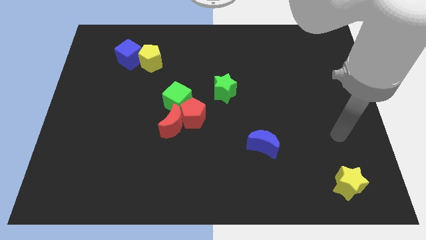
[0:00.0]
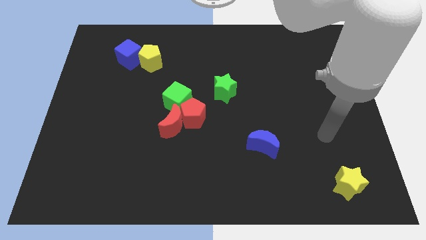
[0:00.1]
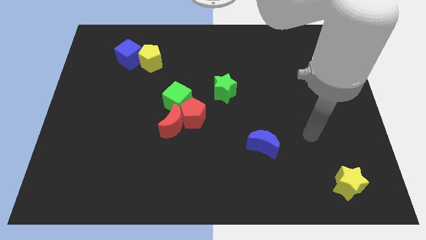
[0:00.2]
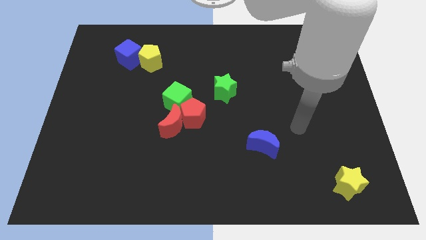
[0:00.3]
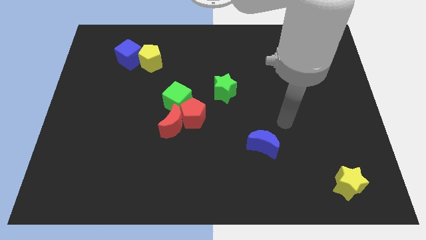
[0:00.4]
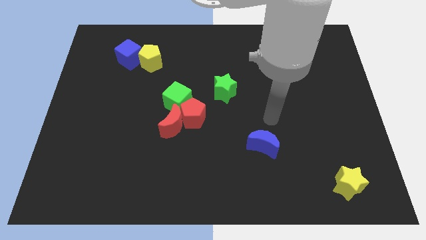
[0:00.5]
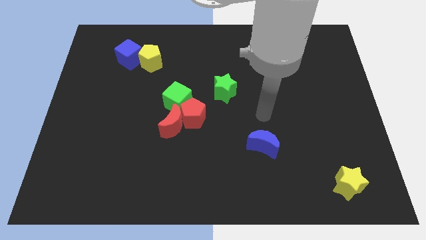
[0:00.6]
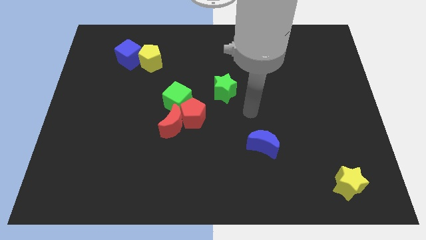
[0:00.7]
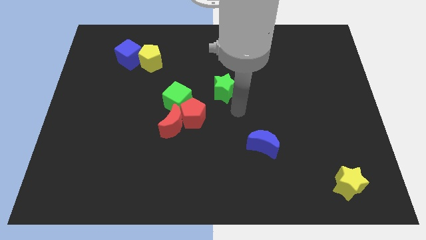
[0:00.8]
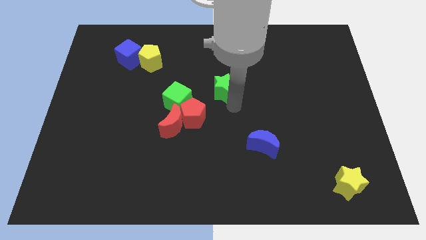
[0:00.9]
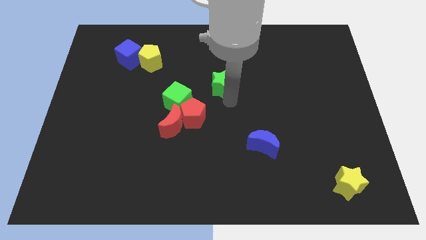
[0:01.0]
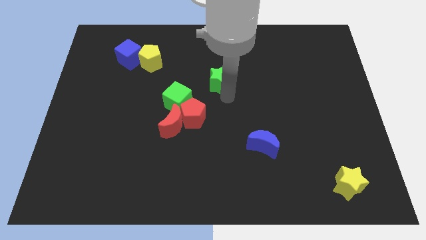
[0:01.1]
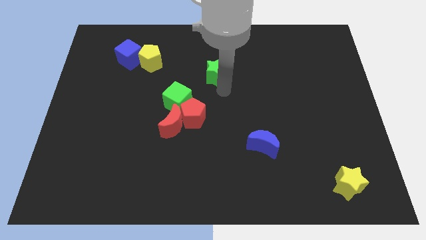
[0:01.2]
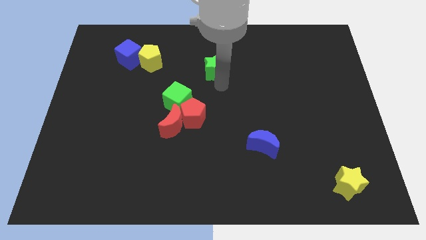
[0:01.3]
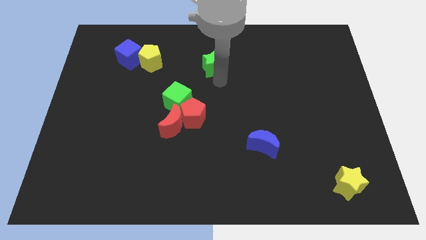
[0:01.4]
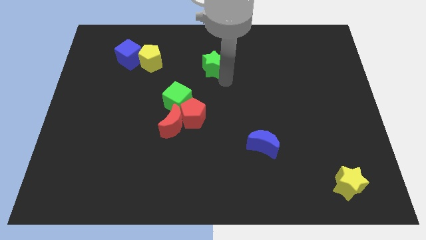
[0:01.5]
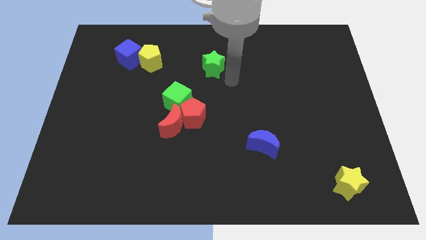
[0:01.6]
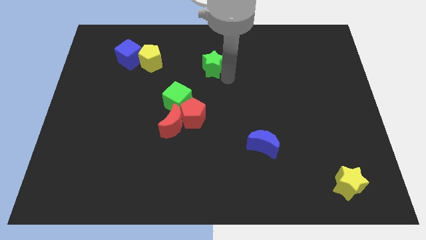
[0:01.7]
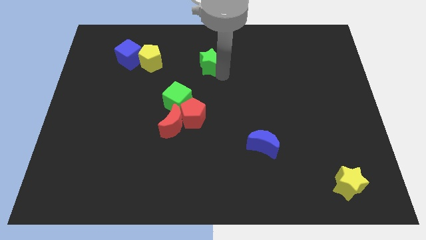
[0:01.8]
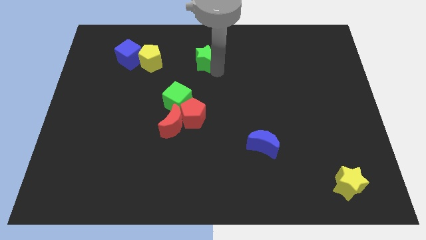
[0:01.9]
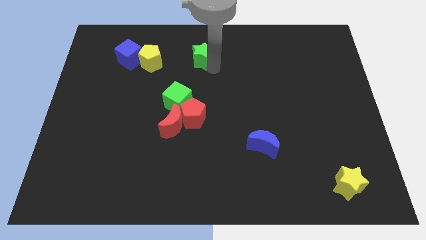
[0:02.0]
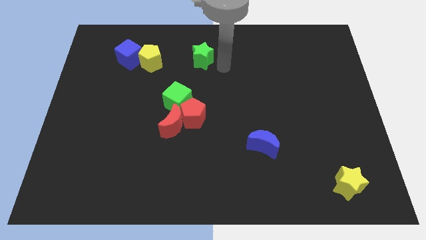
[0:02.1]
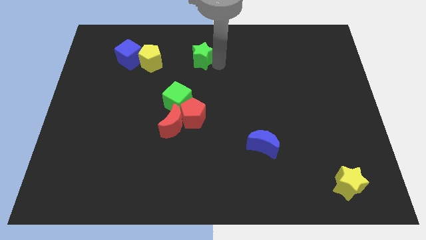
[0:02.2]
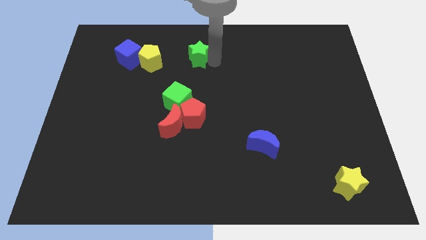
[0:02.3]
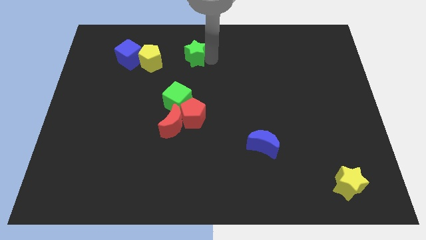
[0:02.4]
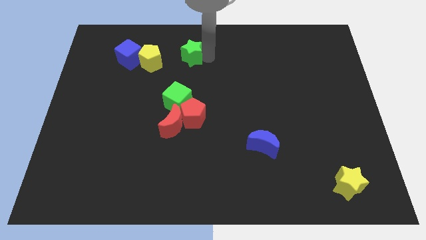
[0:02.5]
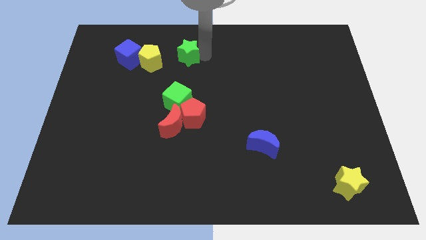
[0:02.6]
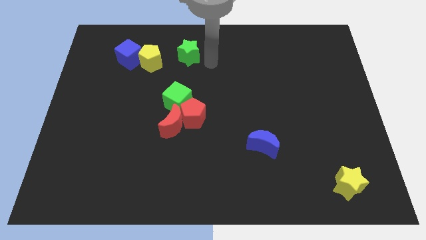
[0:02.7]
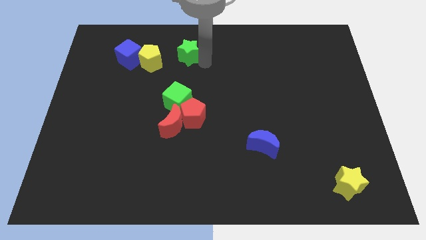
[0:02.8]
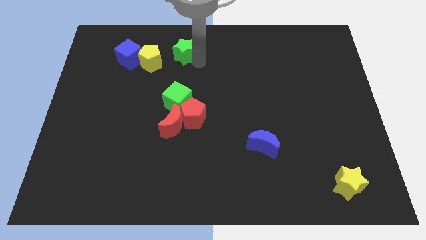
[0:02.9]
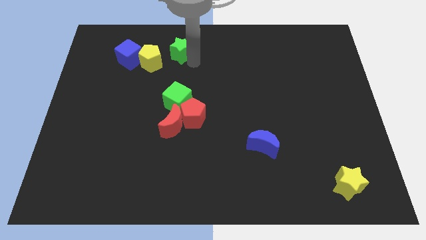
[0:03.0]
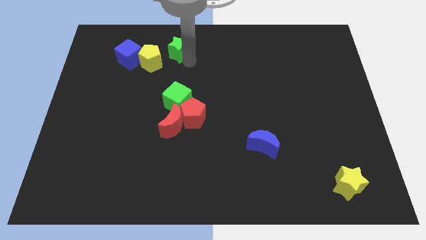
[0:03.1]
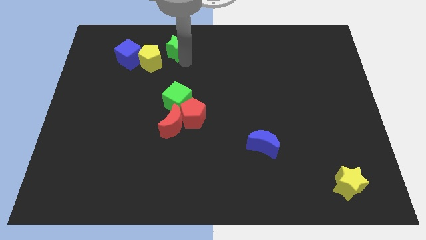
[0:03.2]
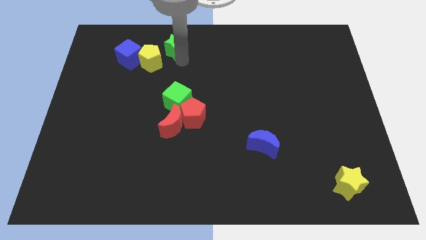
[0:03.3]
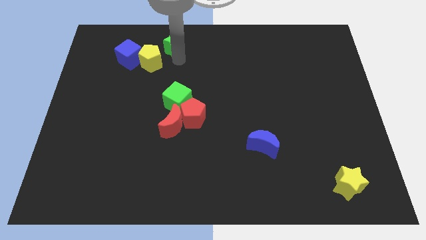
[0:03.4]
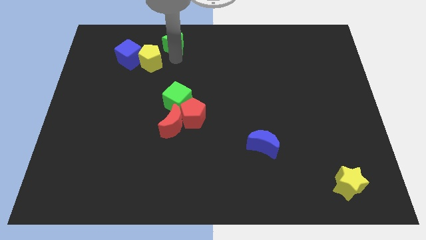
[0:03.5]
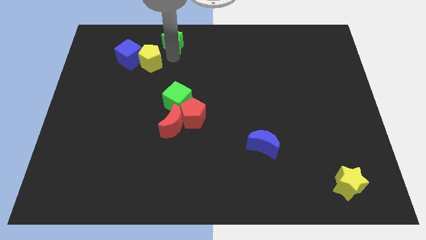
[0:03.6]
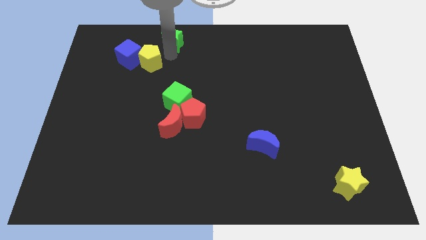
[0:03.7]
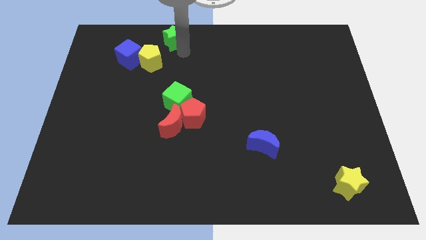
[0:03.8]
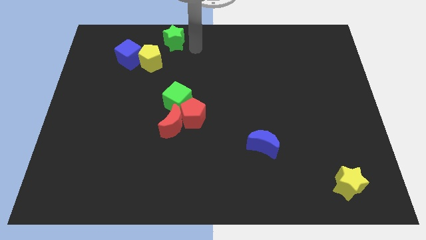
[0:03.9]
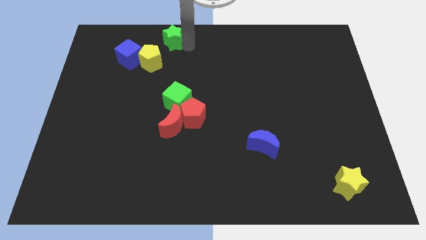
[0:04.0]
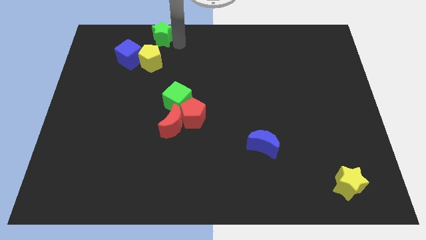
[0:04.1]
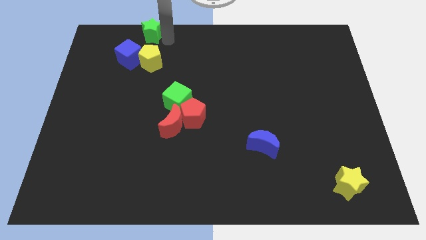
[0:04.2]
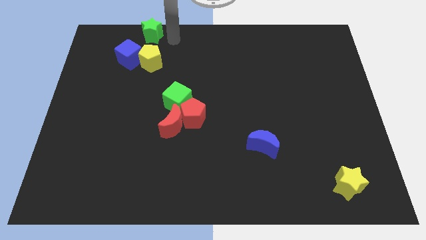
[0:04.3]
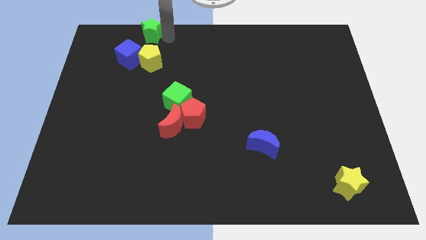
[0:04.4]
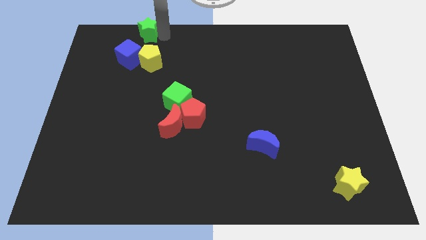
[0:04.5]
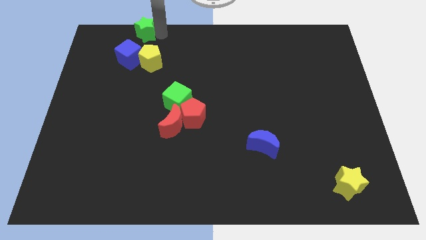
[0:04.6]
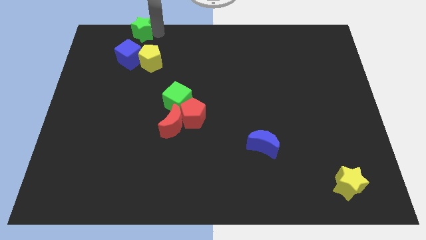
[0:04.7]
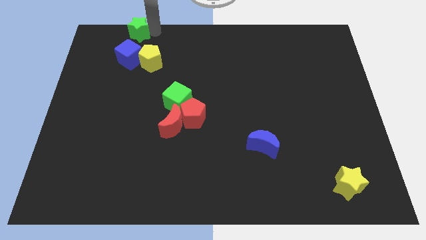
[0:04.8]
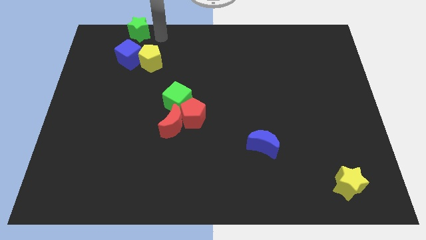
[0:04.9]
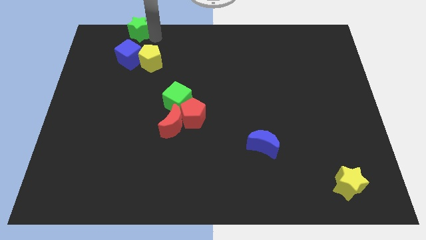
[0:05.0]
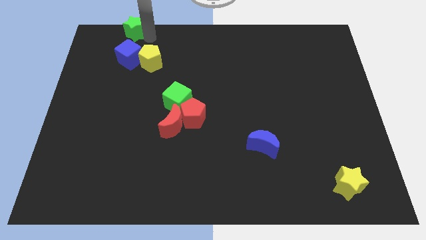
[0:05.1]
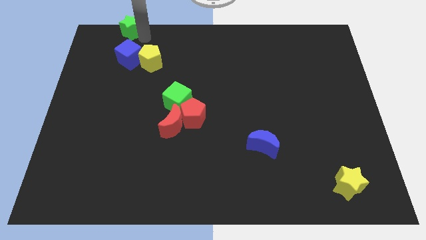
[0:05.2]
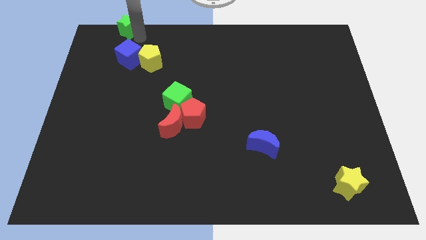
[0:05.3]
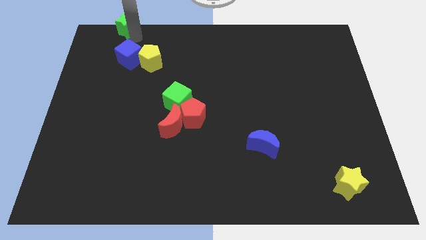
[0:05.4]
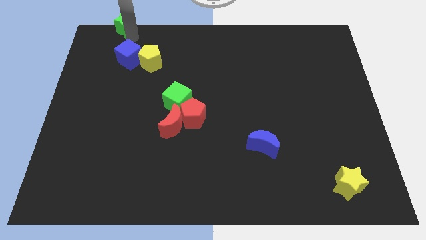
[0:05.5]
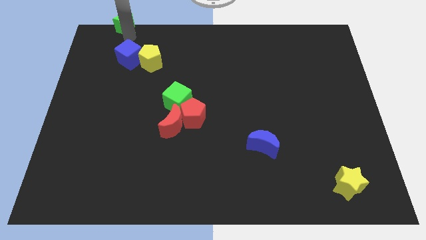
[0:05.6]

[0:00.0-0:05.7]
move the green star to the top left of the board

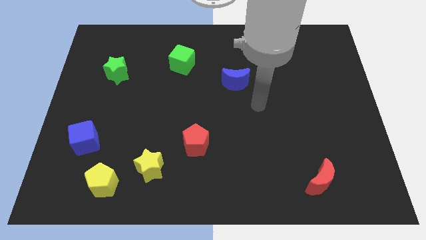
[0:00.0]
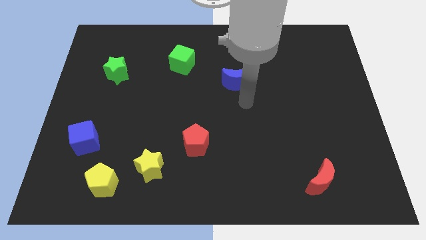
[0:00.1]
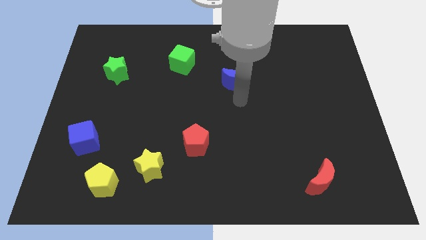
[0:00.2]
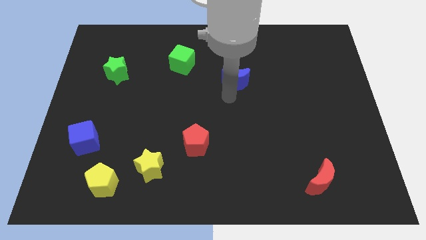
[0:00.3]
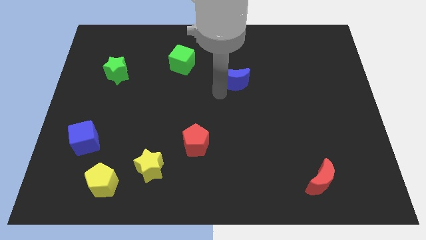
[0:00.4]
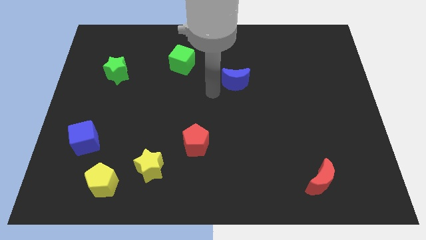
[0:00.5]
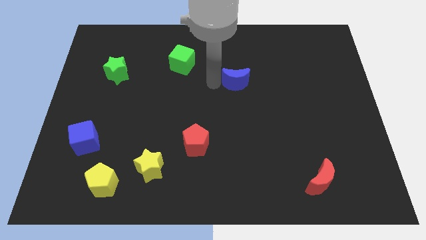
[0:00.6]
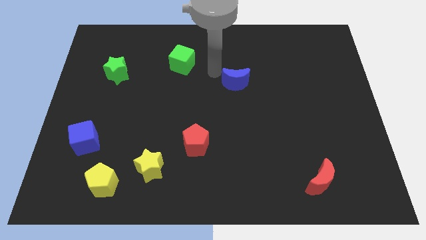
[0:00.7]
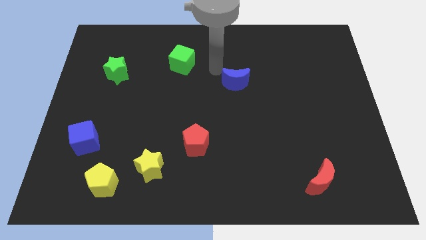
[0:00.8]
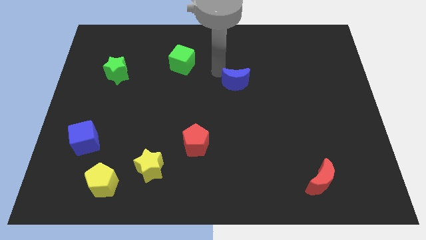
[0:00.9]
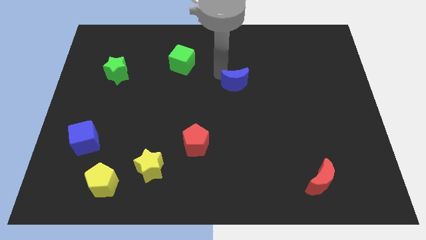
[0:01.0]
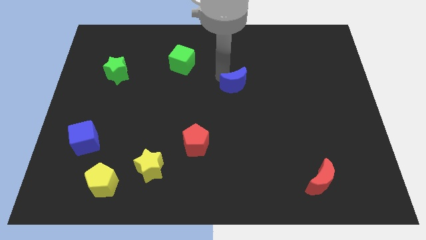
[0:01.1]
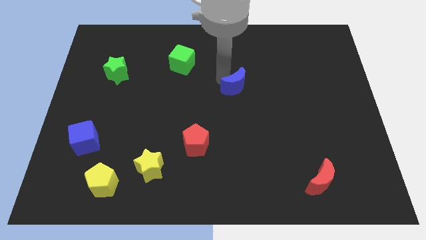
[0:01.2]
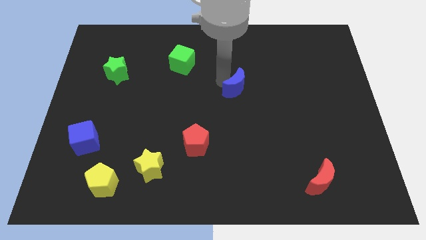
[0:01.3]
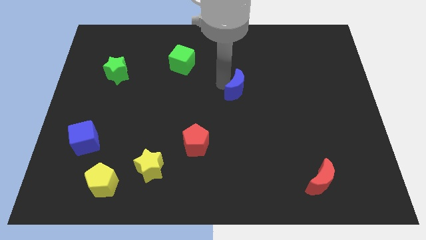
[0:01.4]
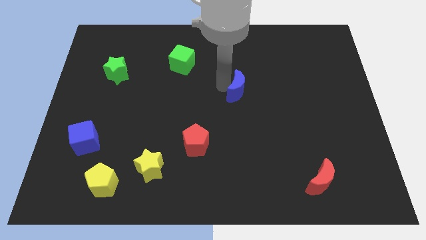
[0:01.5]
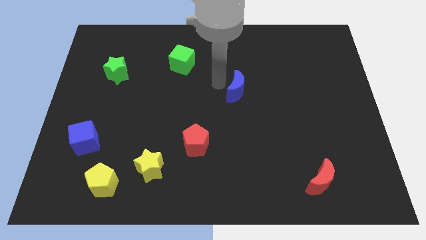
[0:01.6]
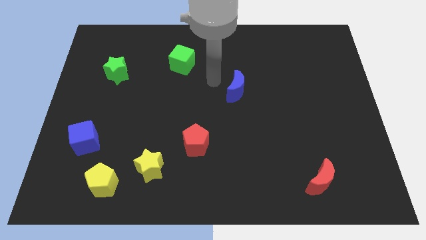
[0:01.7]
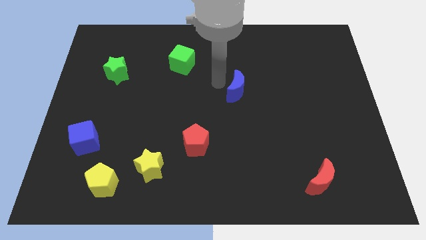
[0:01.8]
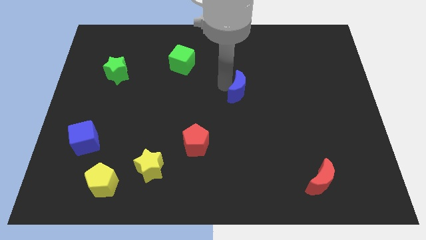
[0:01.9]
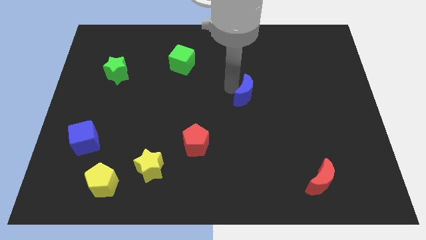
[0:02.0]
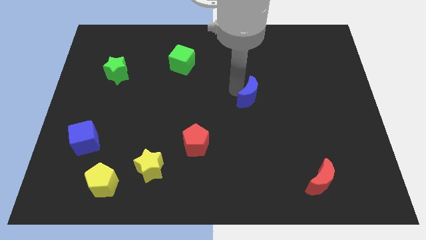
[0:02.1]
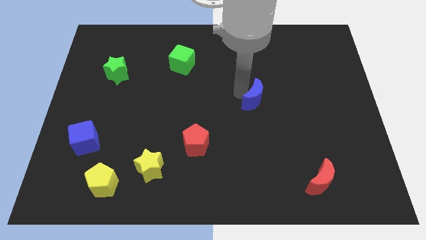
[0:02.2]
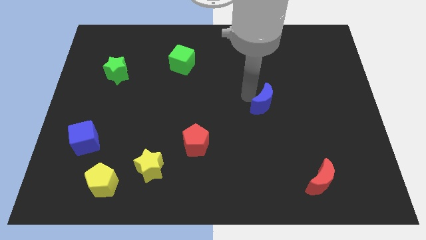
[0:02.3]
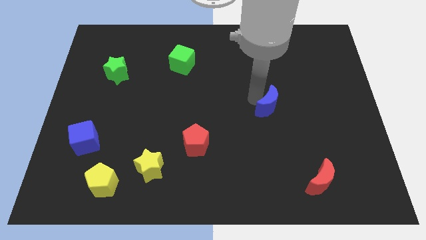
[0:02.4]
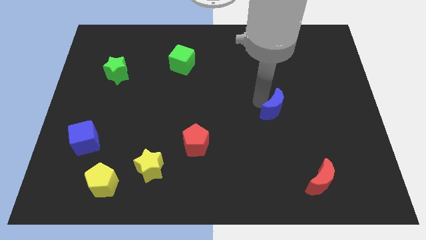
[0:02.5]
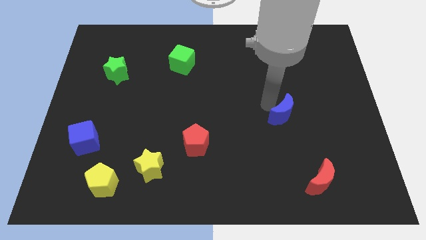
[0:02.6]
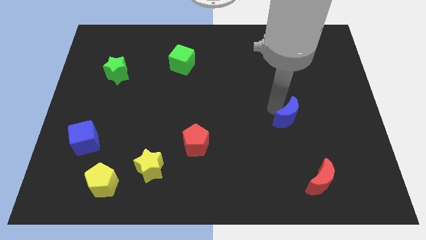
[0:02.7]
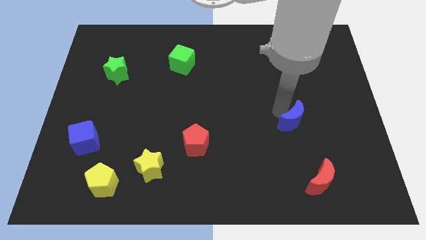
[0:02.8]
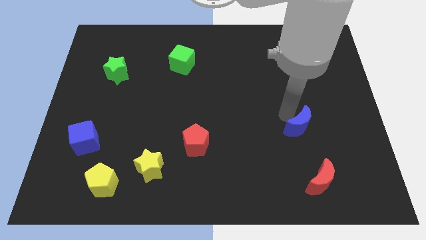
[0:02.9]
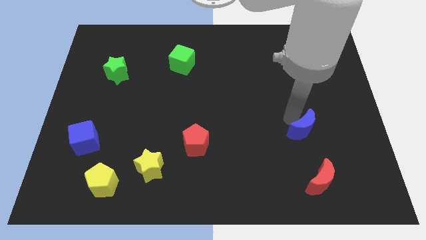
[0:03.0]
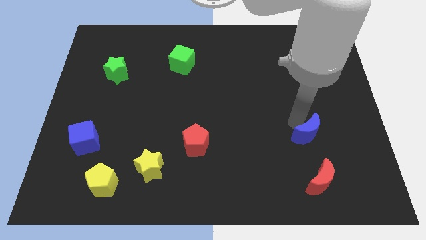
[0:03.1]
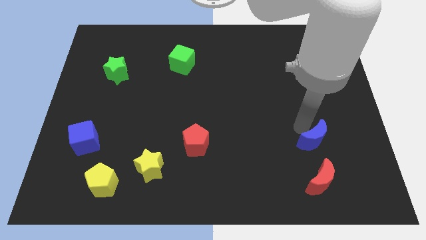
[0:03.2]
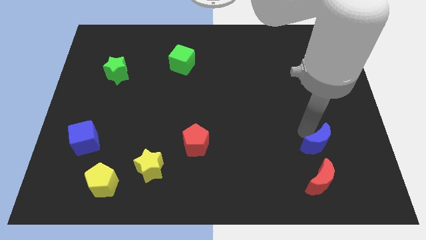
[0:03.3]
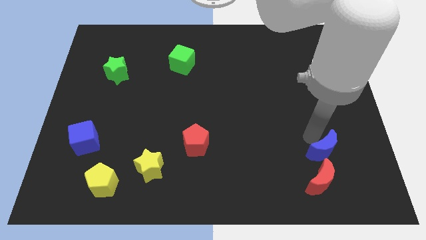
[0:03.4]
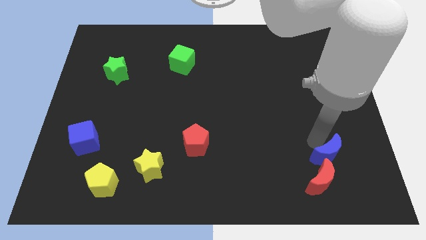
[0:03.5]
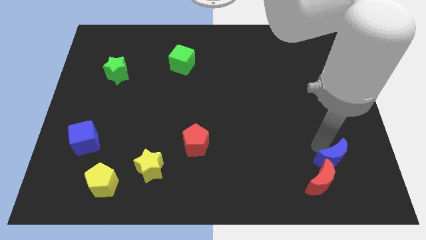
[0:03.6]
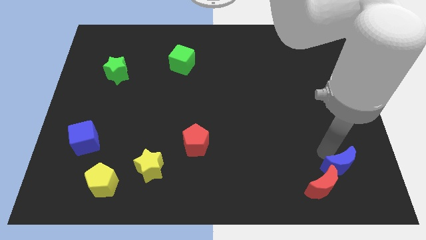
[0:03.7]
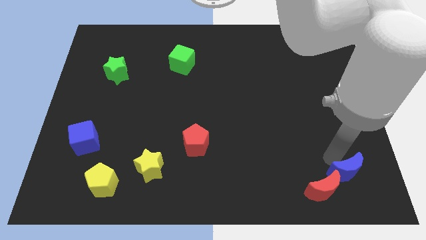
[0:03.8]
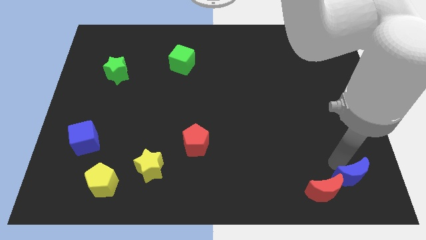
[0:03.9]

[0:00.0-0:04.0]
put the blue moon to the bottom right corner
